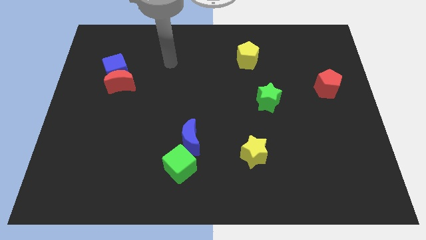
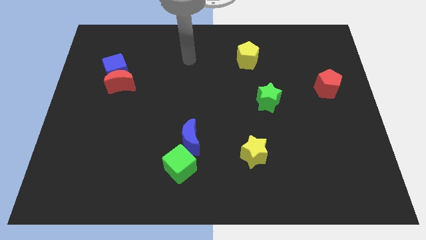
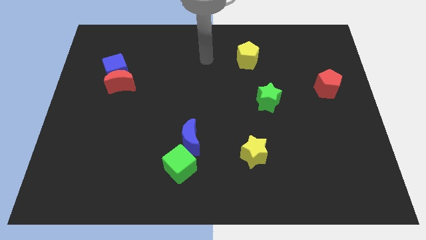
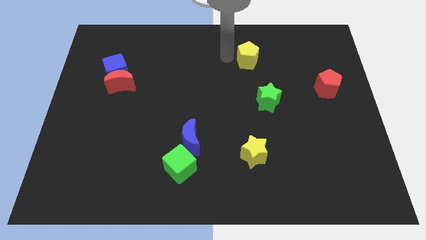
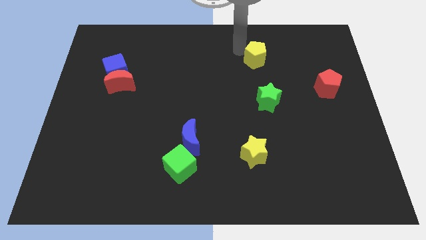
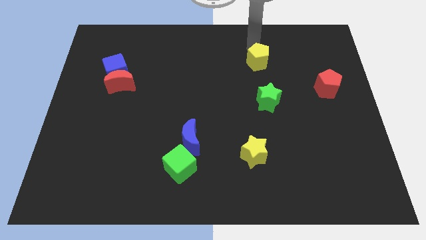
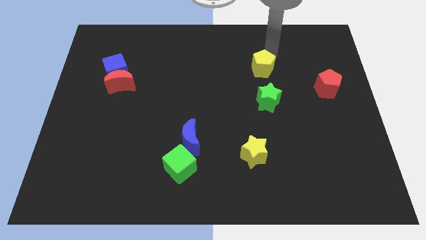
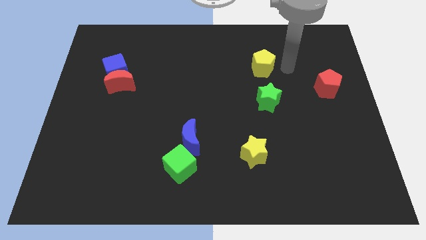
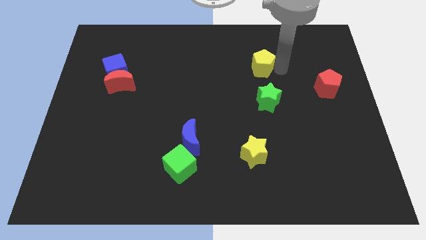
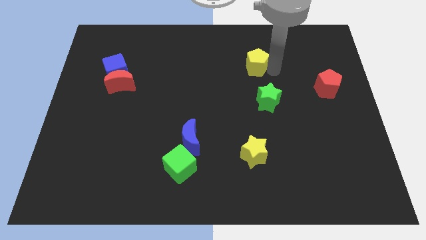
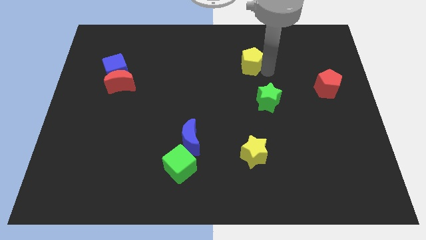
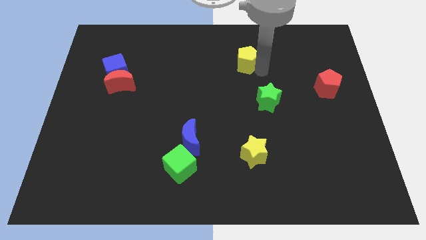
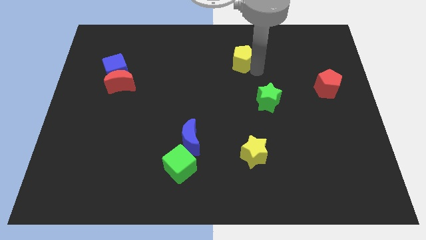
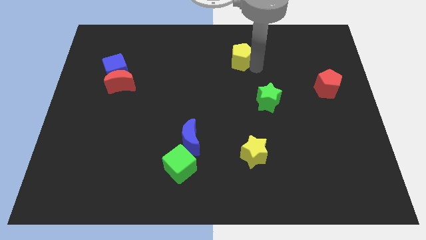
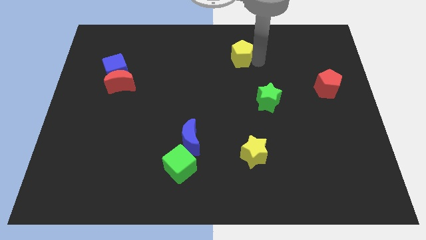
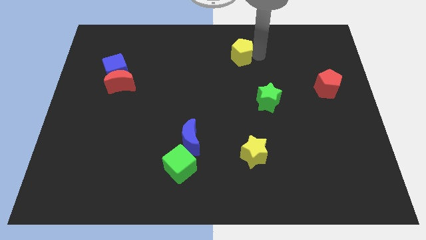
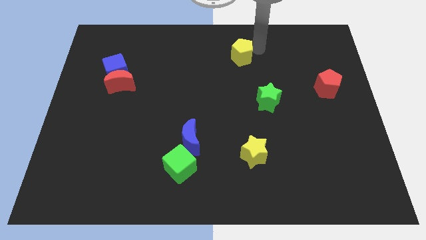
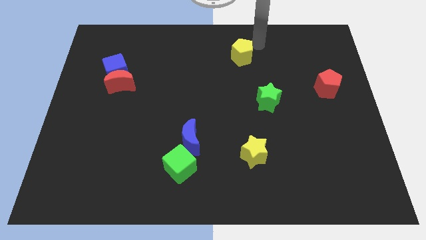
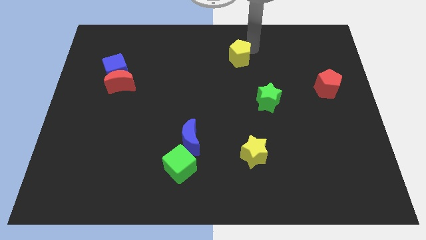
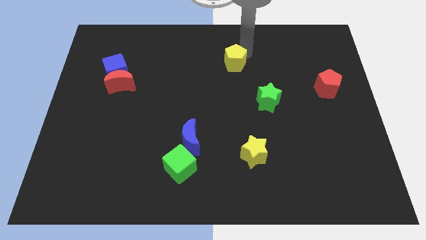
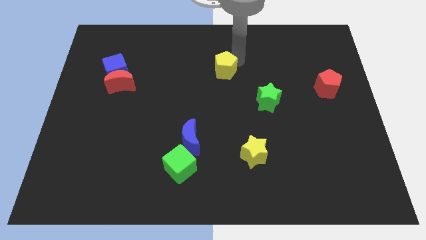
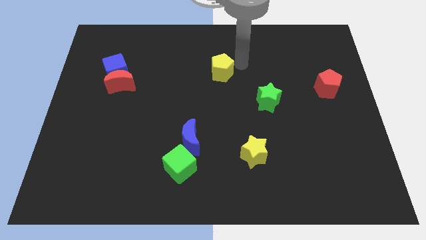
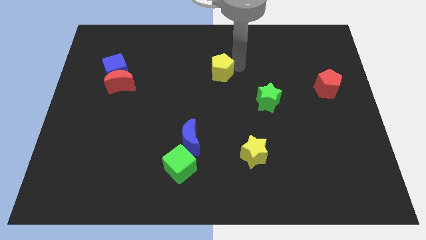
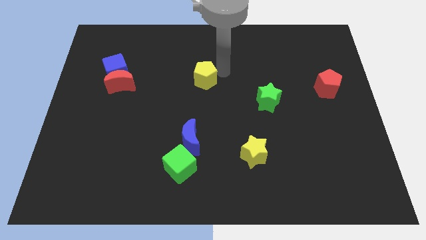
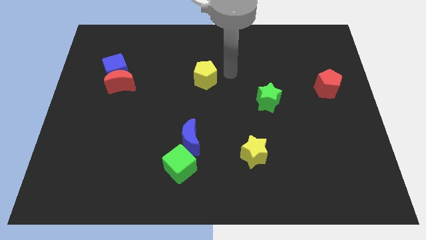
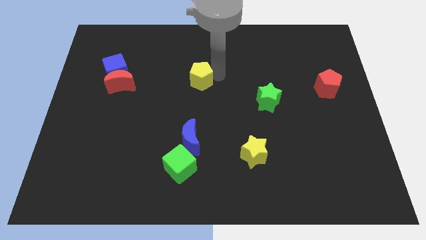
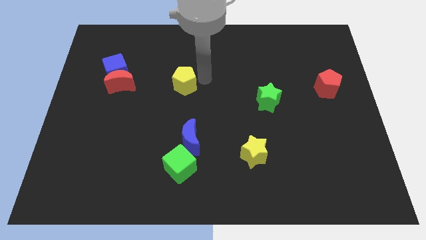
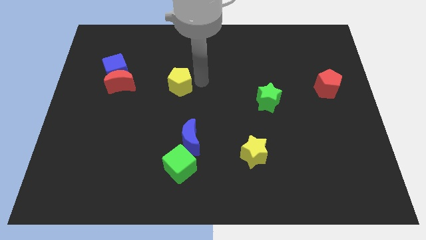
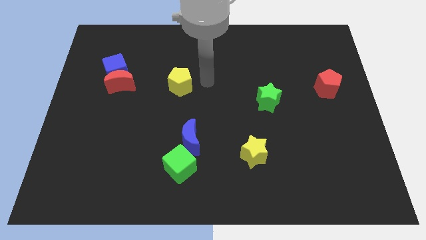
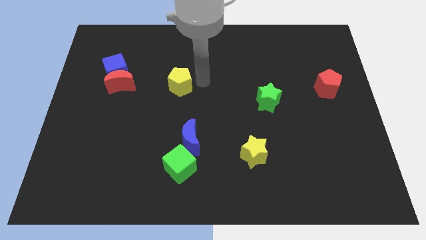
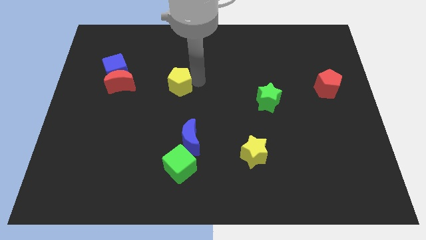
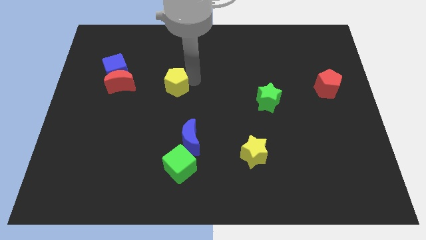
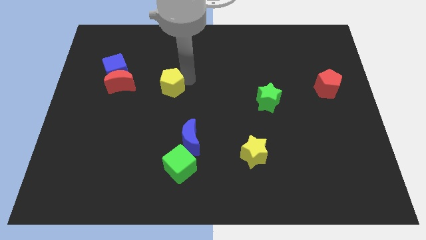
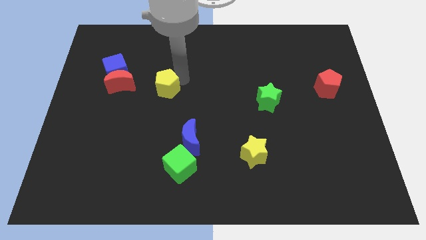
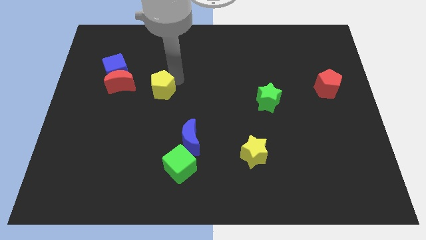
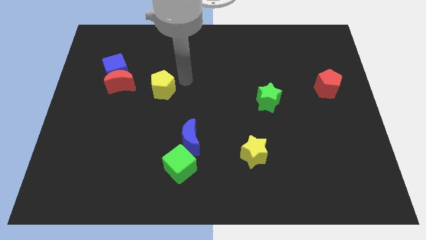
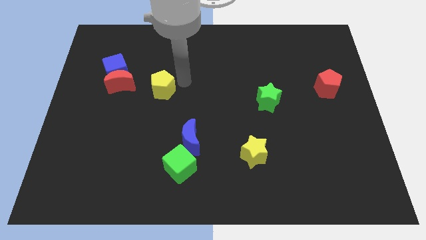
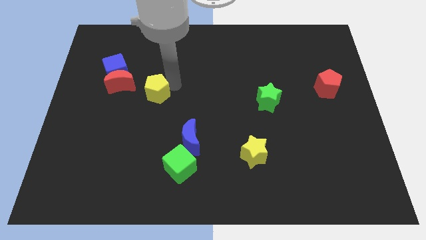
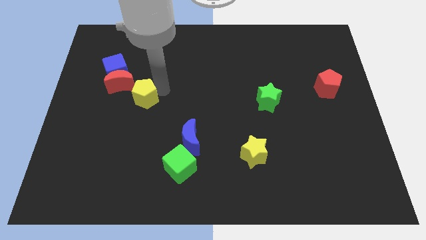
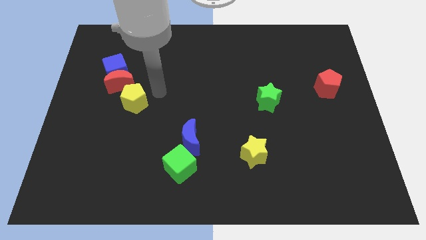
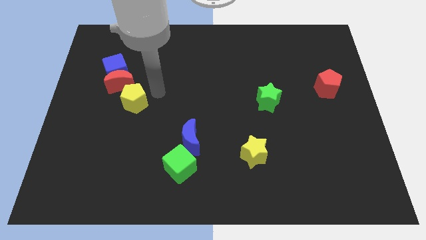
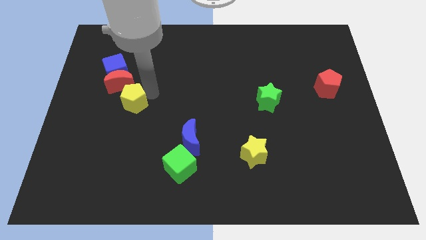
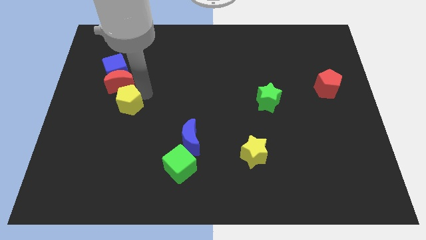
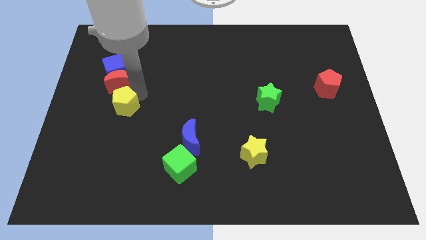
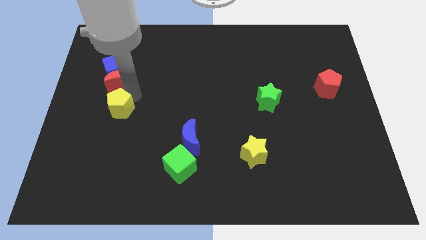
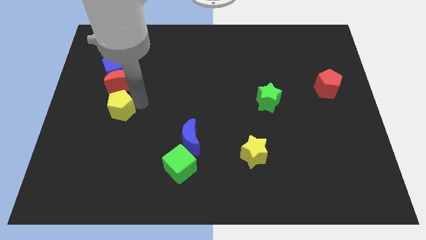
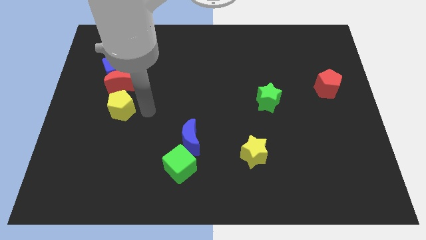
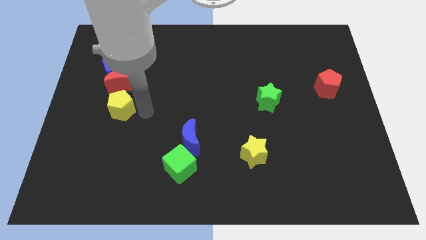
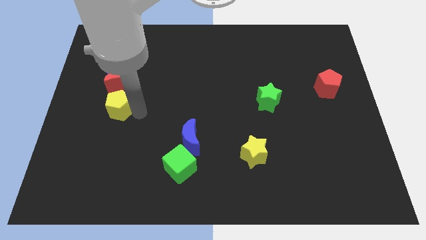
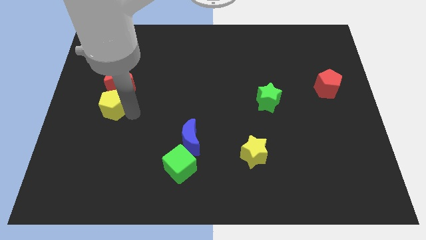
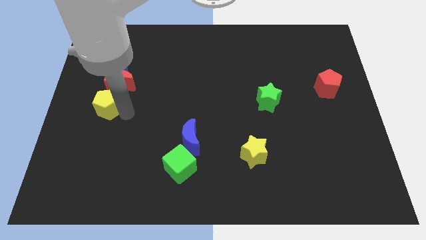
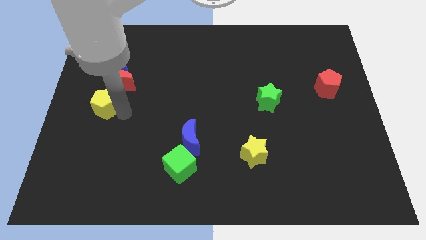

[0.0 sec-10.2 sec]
put the yellow pentagon to the center left

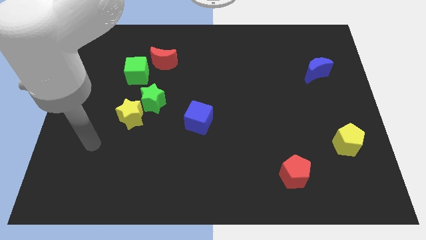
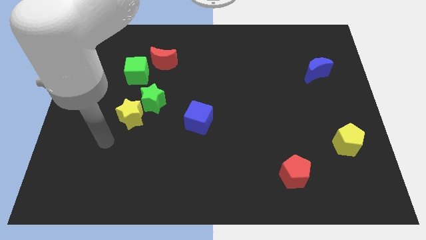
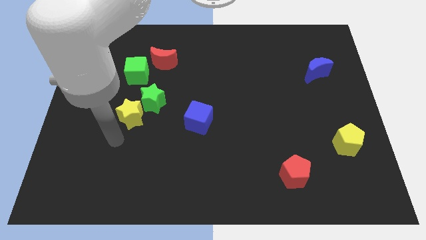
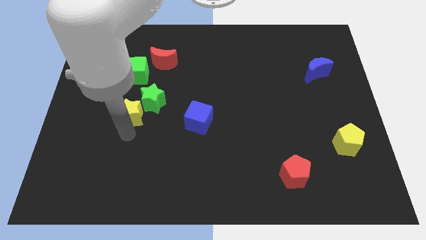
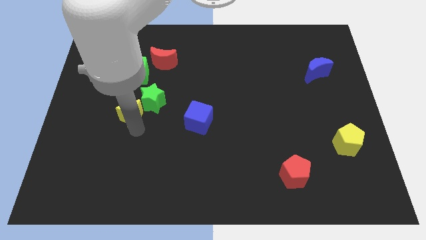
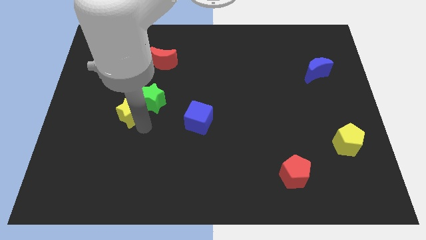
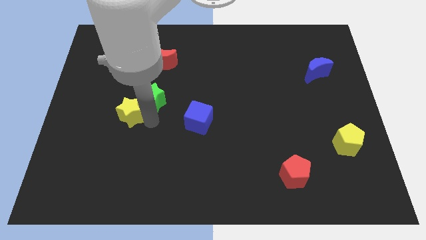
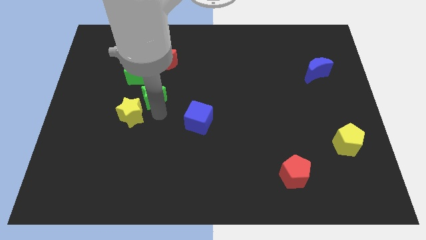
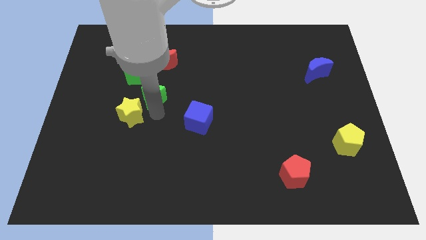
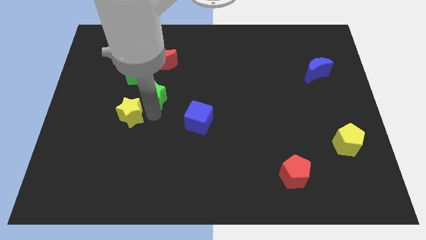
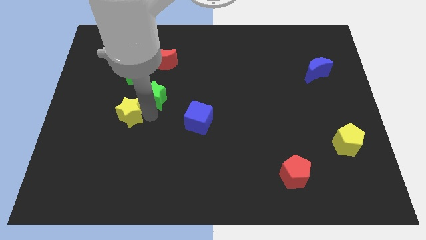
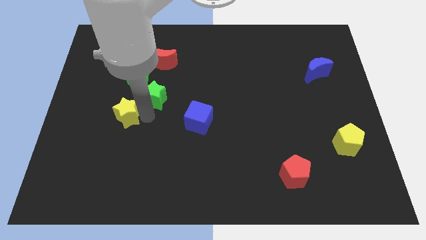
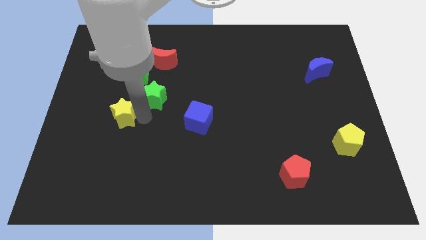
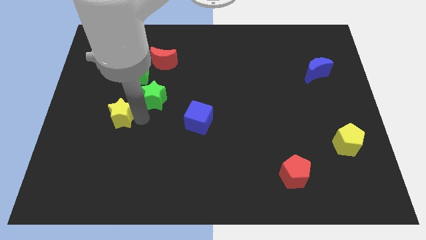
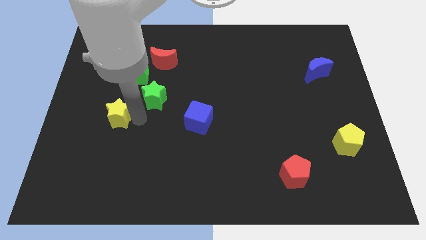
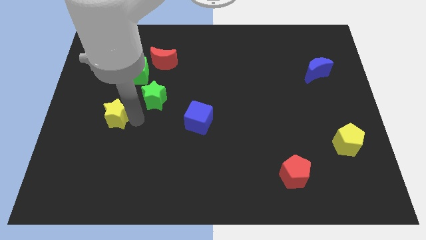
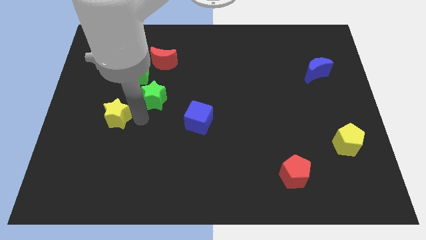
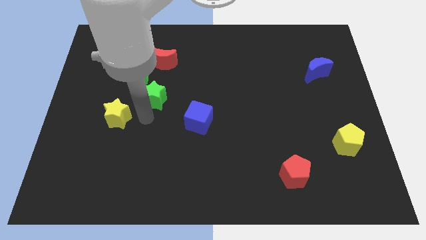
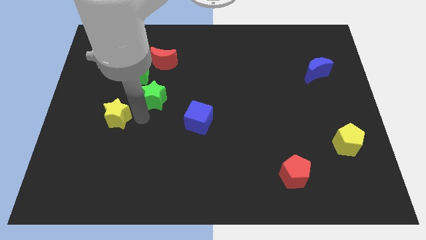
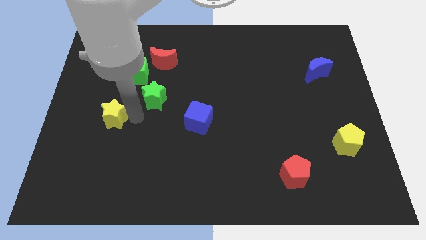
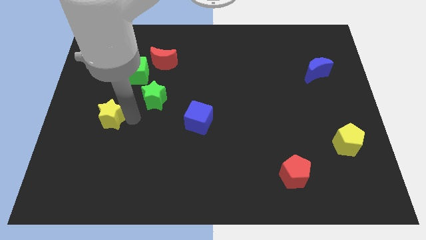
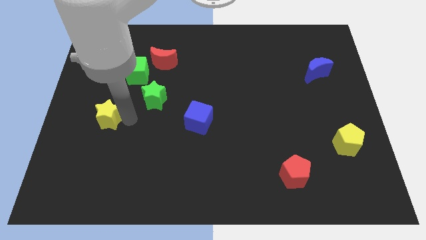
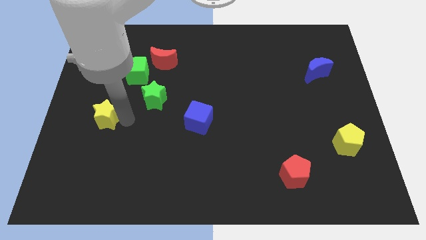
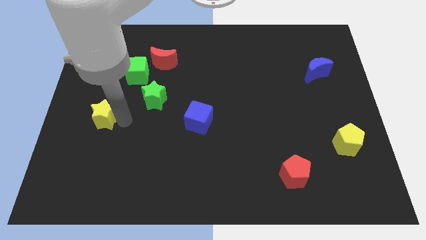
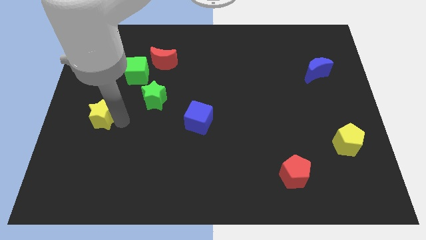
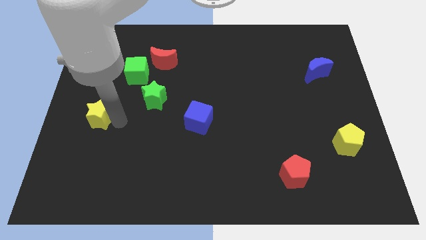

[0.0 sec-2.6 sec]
put the yellow star to the left side
